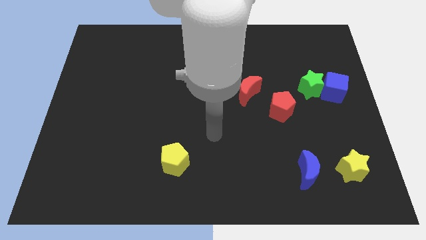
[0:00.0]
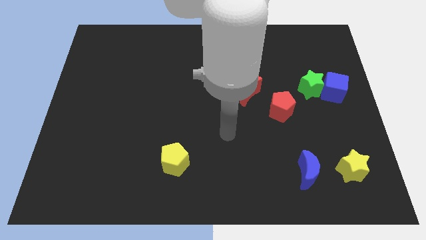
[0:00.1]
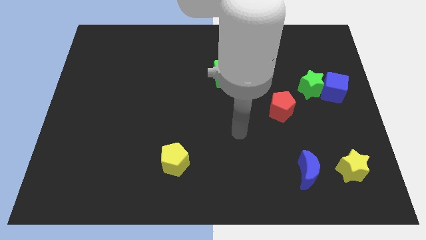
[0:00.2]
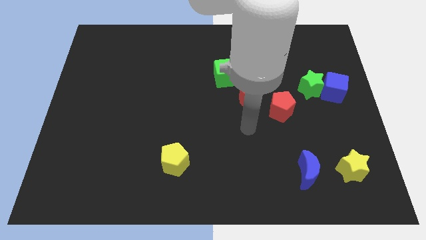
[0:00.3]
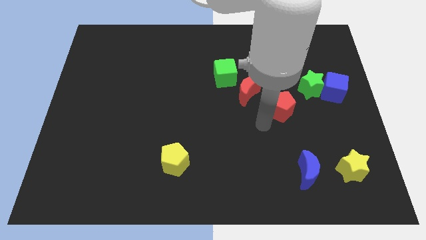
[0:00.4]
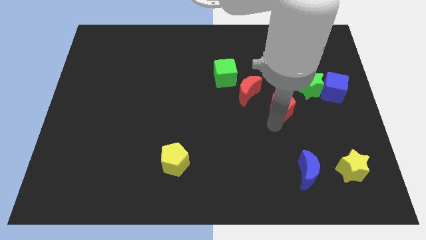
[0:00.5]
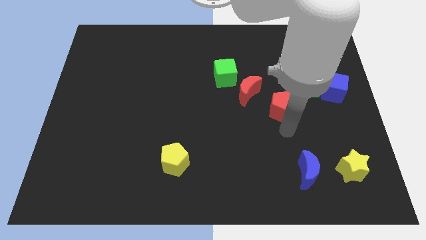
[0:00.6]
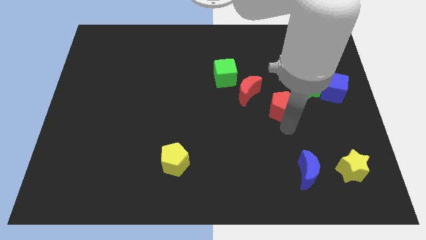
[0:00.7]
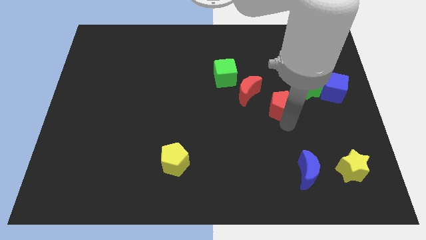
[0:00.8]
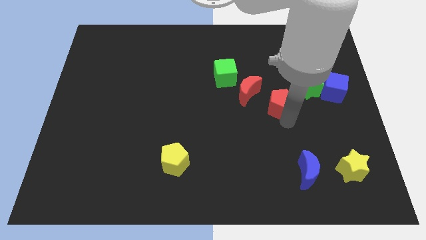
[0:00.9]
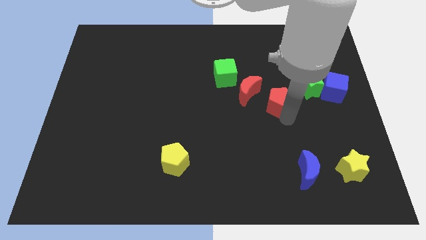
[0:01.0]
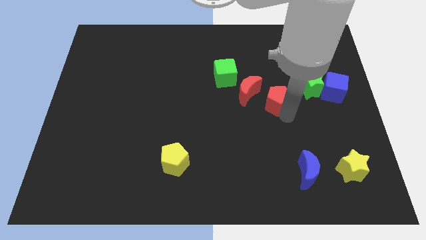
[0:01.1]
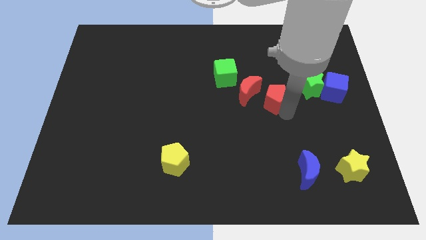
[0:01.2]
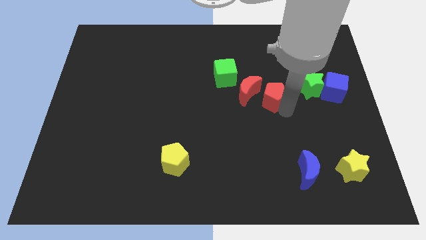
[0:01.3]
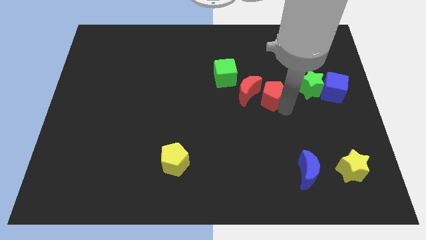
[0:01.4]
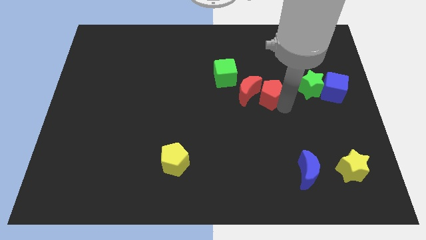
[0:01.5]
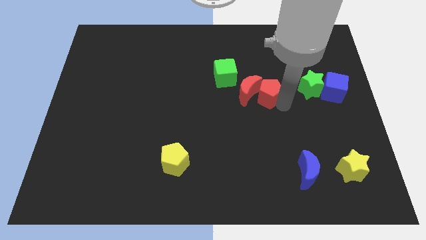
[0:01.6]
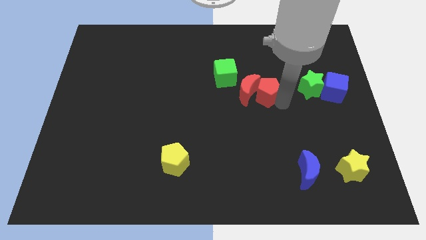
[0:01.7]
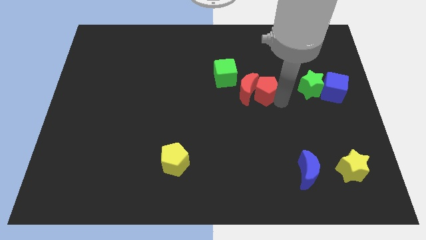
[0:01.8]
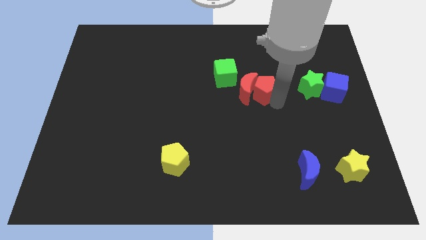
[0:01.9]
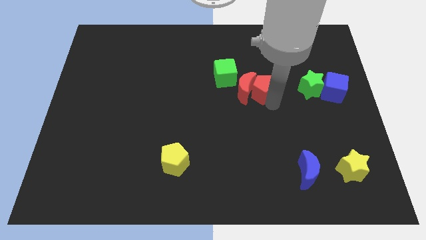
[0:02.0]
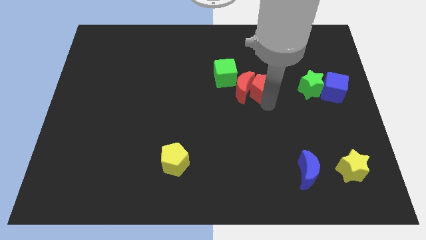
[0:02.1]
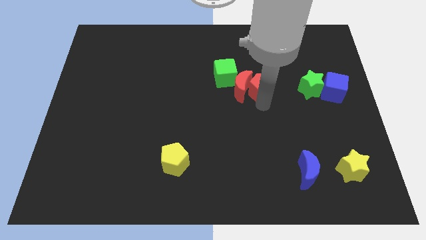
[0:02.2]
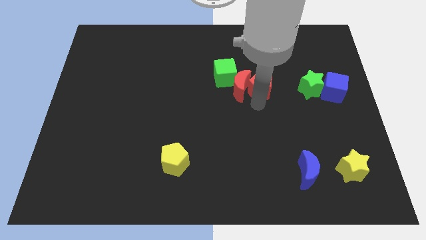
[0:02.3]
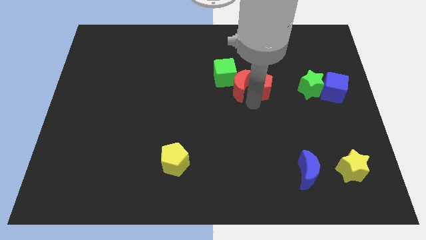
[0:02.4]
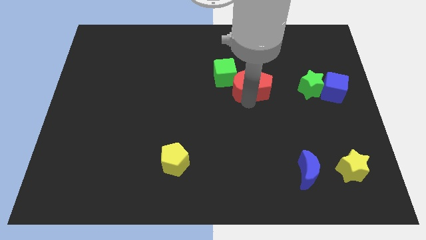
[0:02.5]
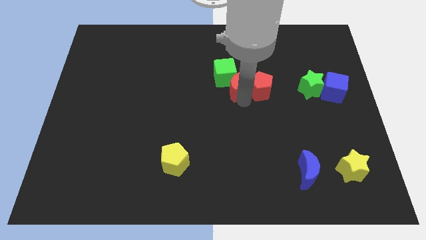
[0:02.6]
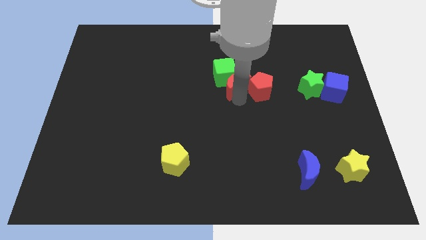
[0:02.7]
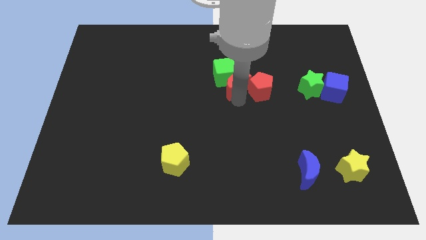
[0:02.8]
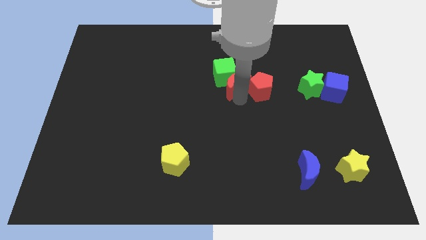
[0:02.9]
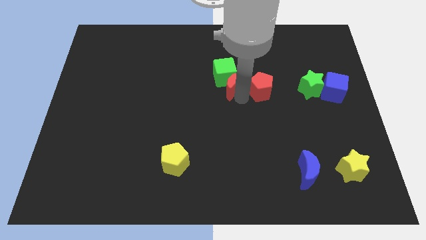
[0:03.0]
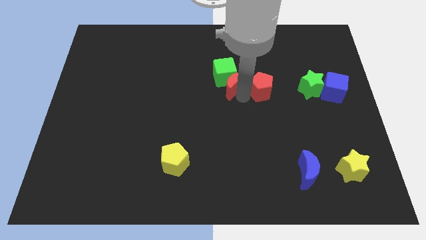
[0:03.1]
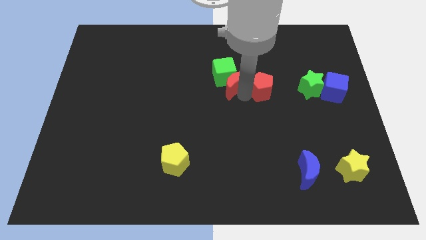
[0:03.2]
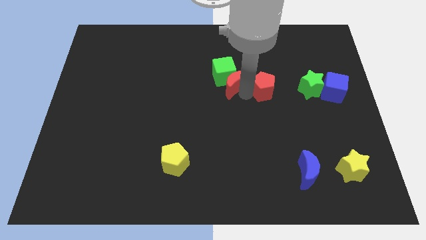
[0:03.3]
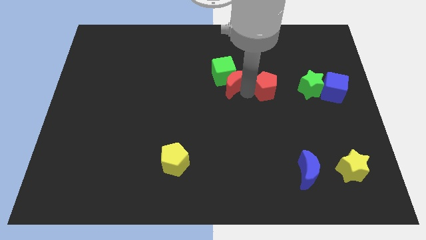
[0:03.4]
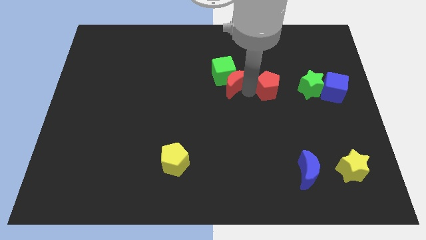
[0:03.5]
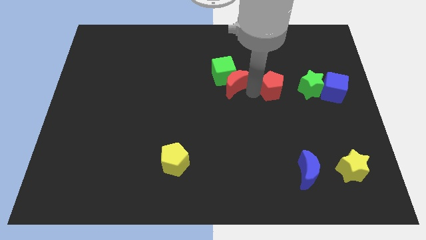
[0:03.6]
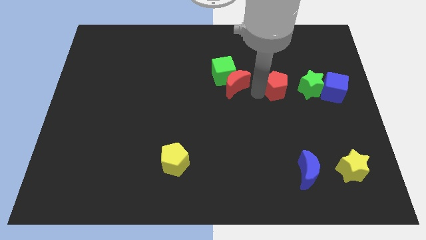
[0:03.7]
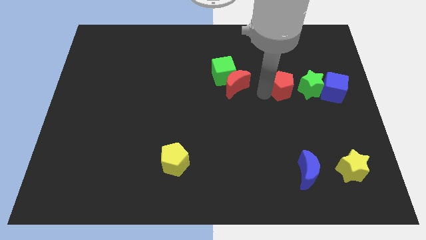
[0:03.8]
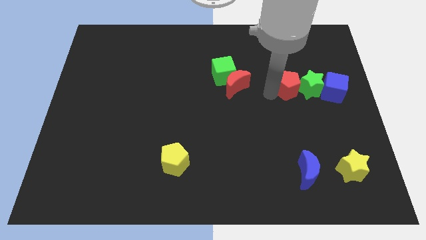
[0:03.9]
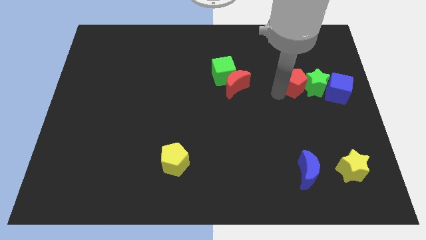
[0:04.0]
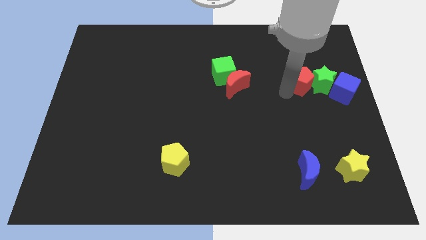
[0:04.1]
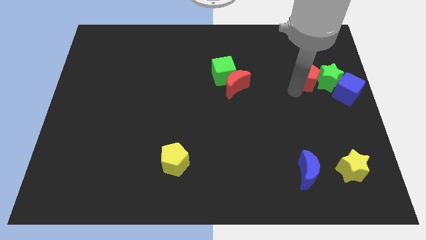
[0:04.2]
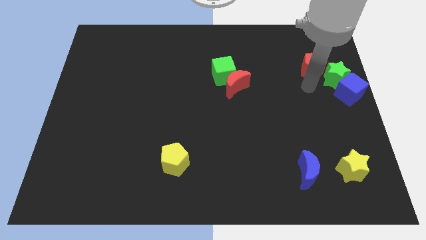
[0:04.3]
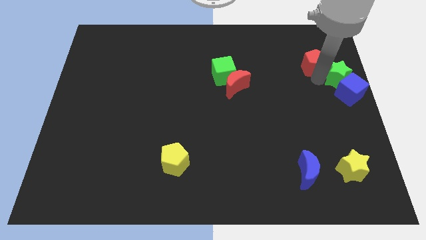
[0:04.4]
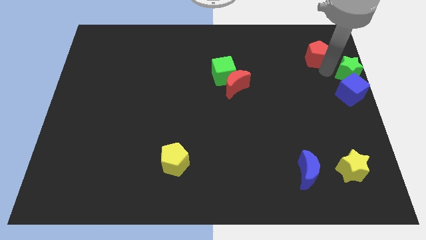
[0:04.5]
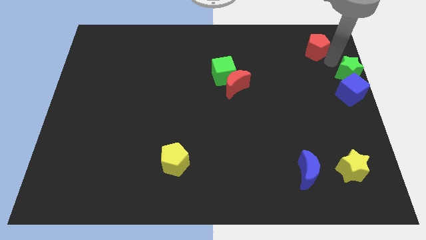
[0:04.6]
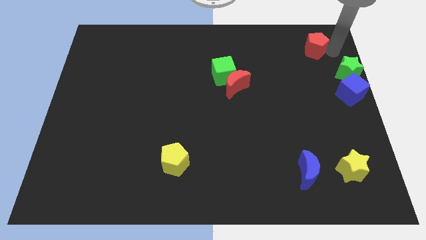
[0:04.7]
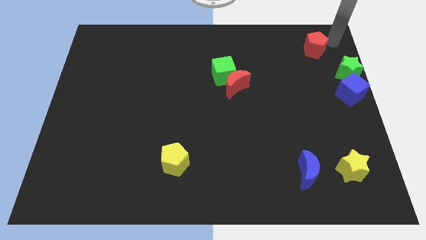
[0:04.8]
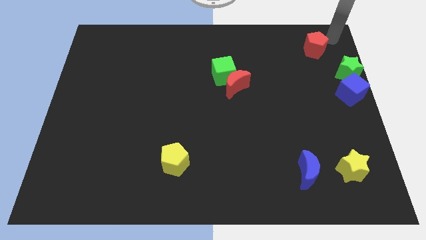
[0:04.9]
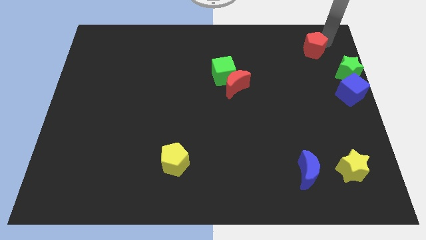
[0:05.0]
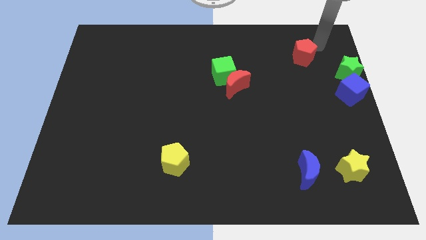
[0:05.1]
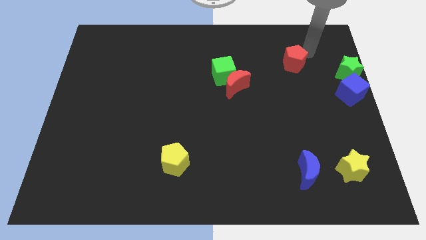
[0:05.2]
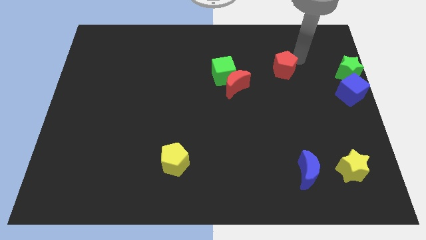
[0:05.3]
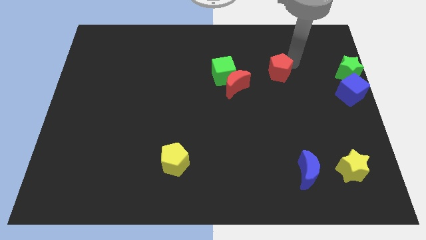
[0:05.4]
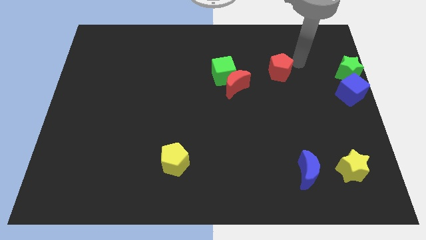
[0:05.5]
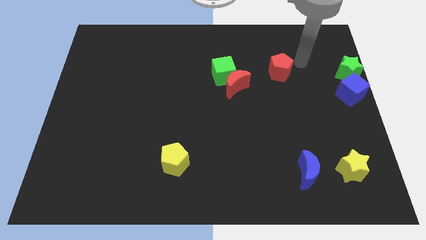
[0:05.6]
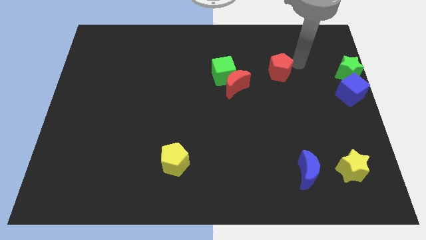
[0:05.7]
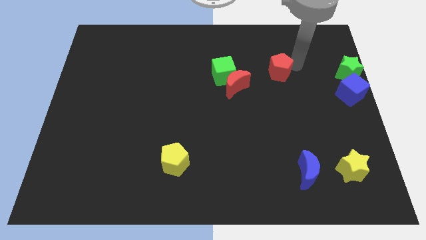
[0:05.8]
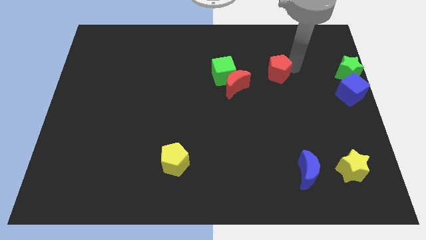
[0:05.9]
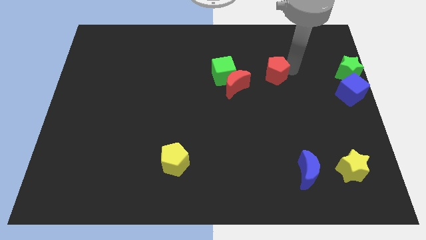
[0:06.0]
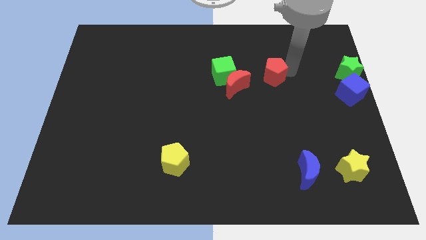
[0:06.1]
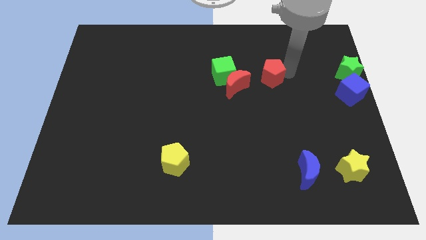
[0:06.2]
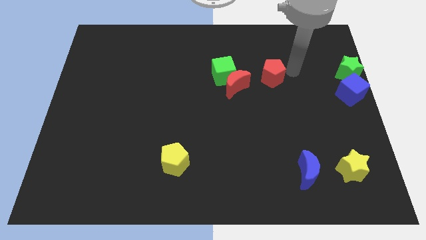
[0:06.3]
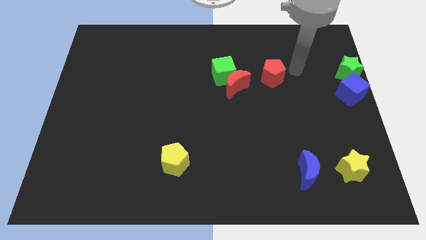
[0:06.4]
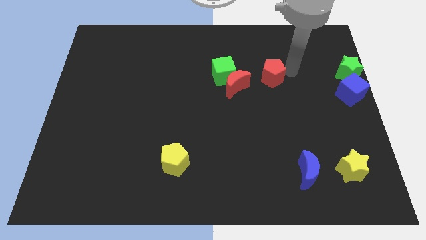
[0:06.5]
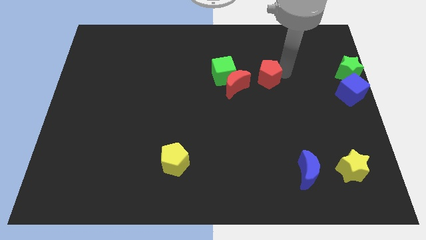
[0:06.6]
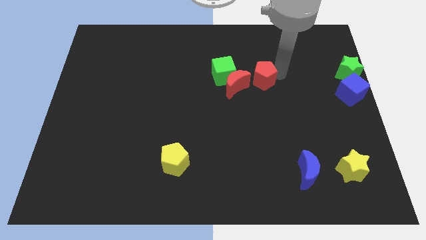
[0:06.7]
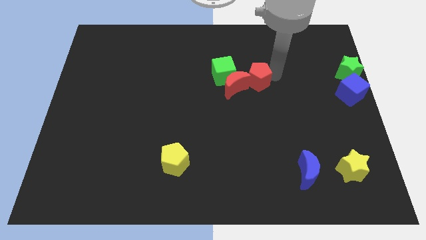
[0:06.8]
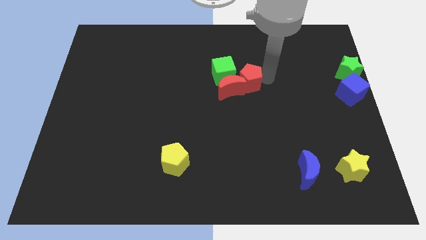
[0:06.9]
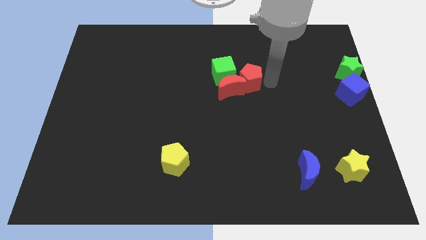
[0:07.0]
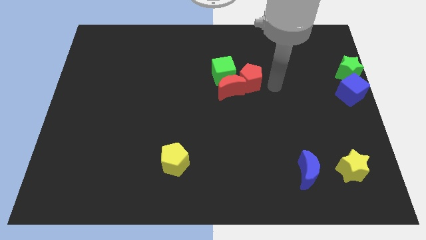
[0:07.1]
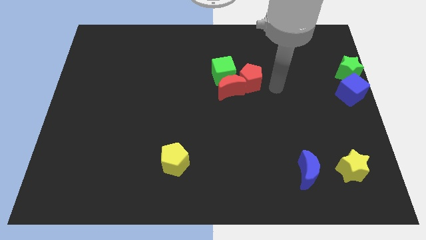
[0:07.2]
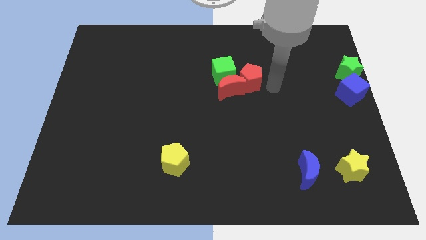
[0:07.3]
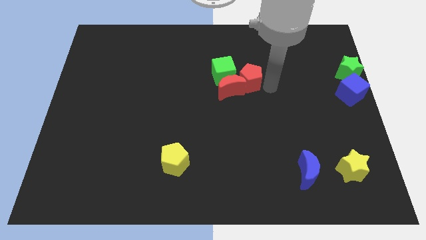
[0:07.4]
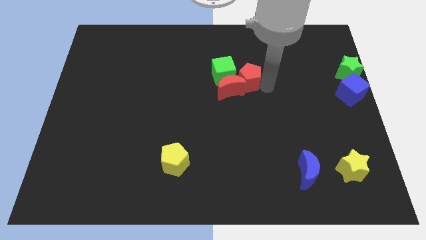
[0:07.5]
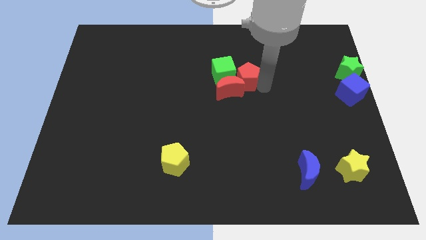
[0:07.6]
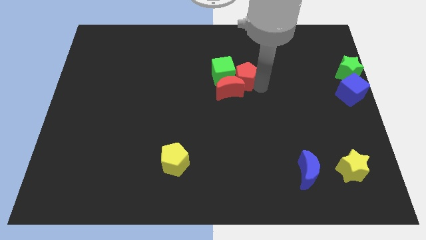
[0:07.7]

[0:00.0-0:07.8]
push the red pentagon to the green cube
